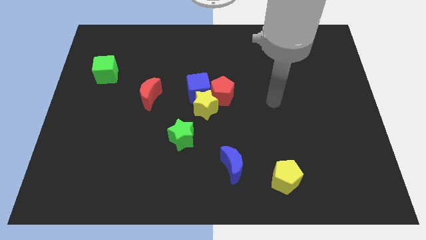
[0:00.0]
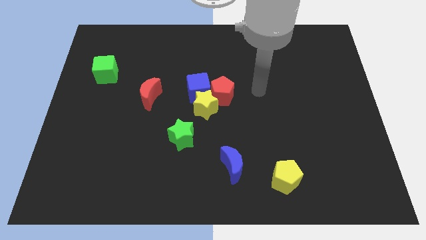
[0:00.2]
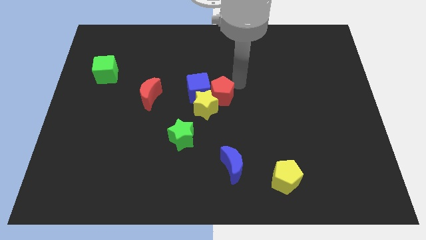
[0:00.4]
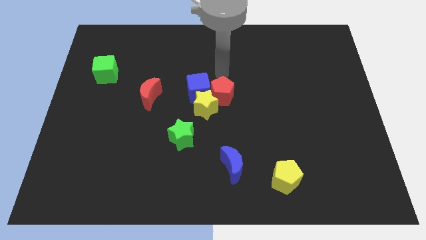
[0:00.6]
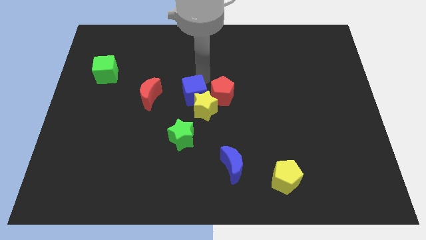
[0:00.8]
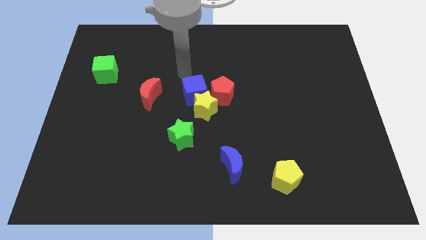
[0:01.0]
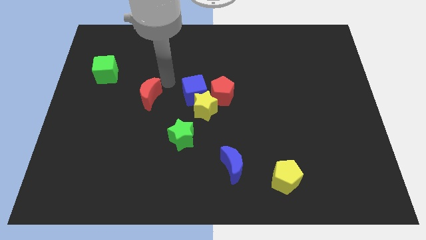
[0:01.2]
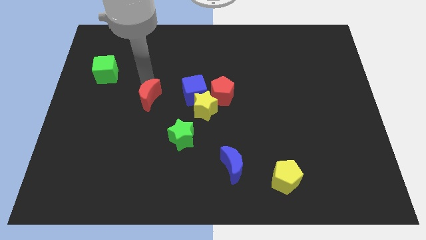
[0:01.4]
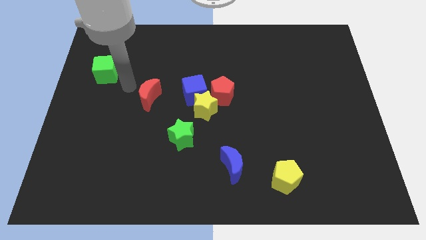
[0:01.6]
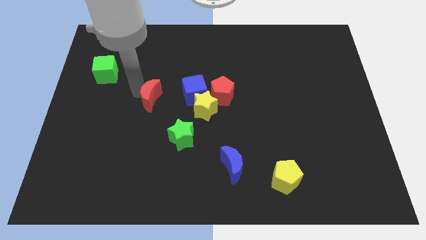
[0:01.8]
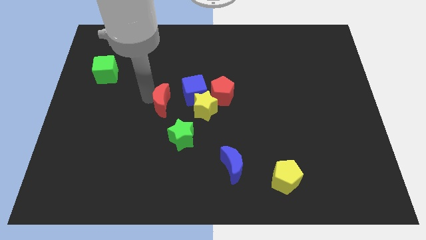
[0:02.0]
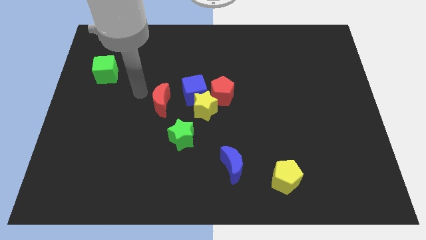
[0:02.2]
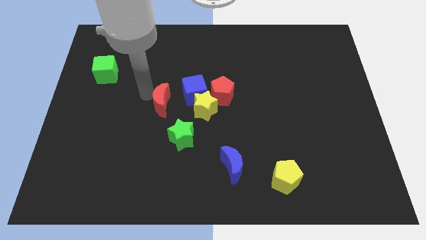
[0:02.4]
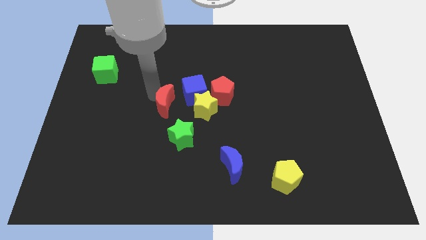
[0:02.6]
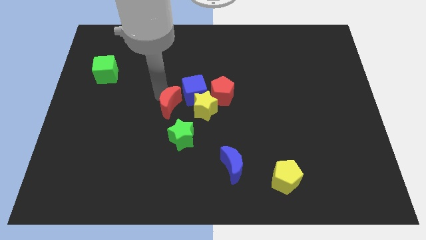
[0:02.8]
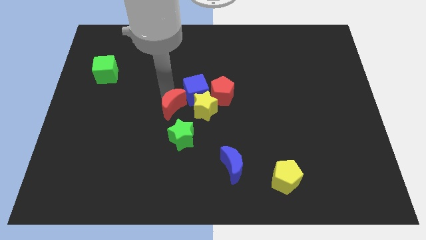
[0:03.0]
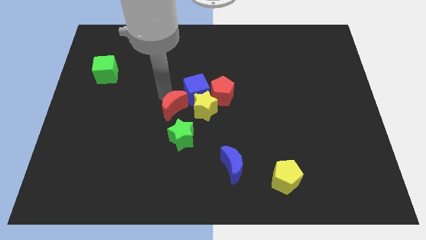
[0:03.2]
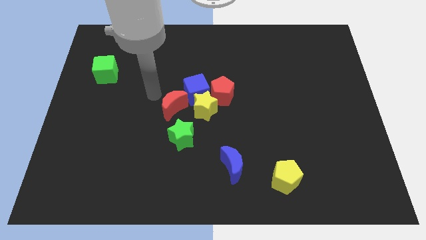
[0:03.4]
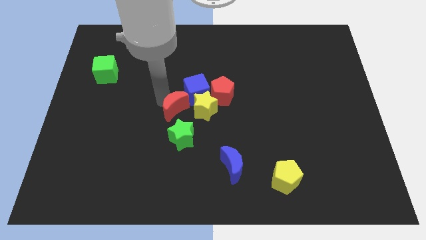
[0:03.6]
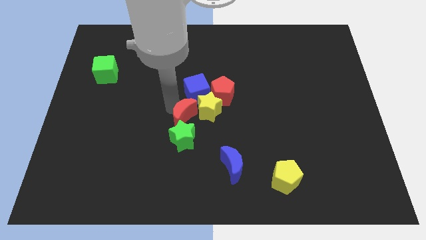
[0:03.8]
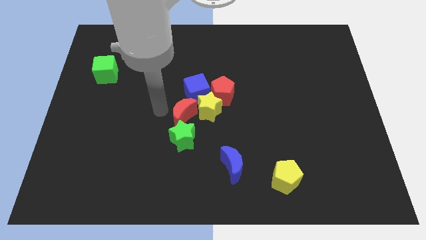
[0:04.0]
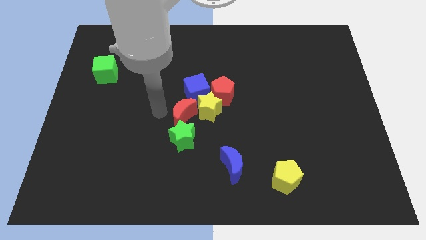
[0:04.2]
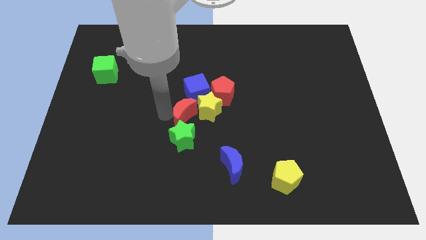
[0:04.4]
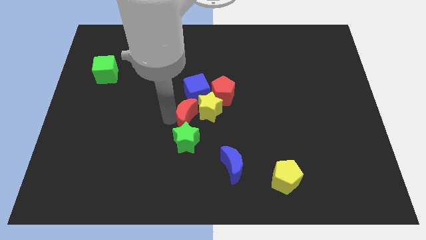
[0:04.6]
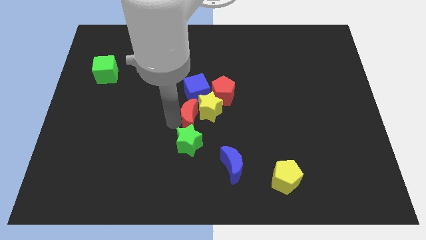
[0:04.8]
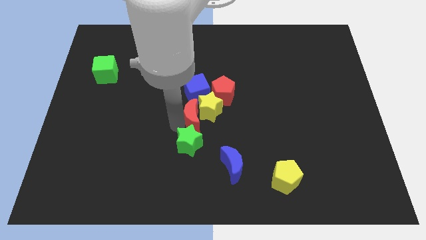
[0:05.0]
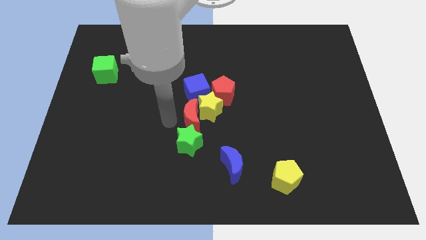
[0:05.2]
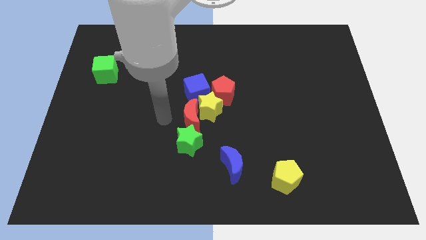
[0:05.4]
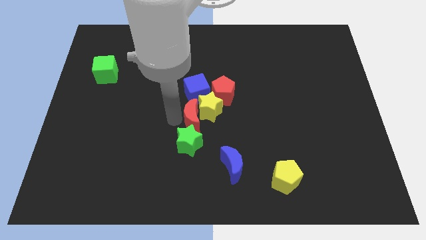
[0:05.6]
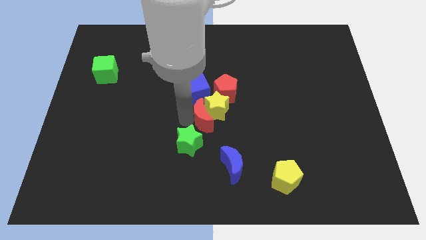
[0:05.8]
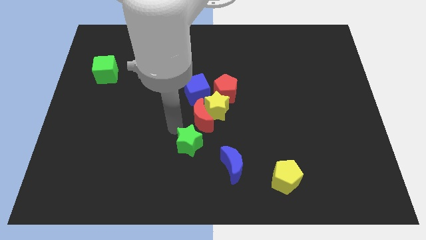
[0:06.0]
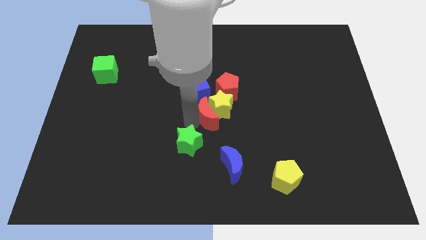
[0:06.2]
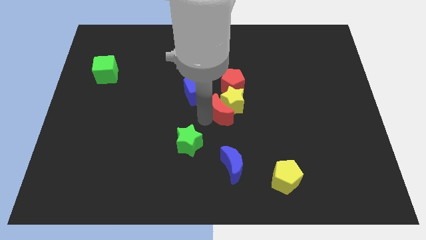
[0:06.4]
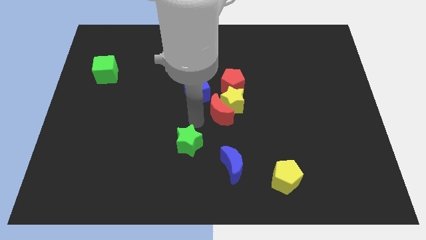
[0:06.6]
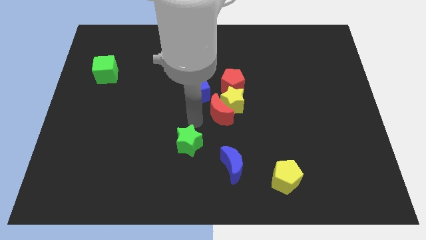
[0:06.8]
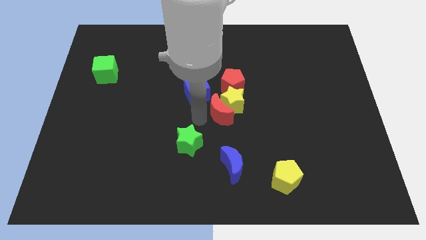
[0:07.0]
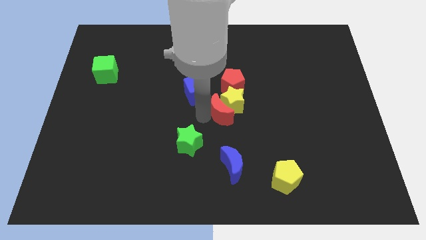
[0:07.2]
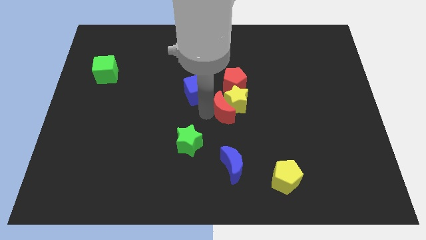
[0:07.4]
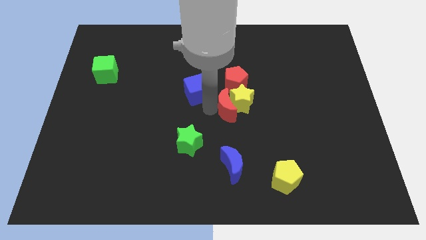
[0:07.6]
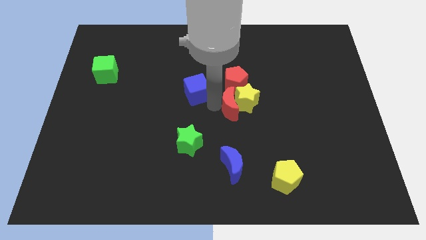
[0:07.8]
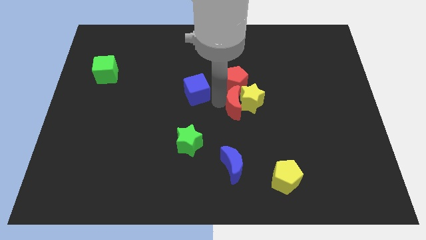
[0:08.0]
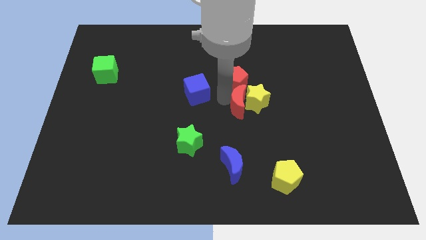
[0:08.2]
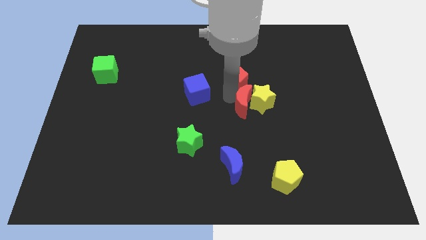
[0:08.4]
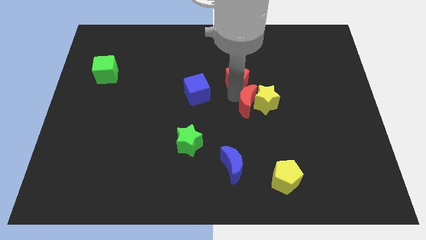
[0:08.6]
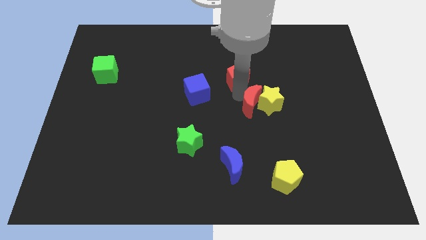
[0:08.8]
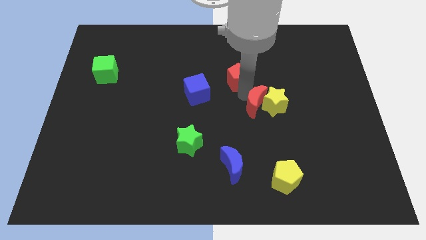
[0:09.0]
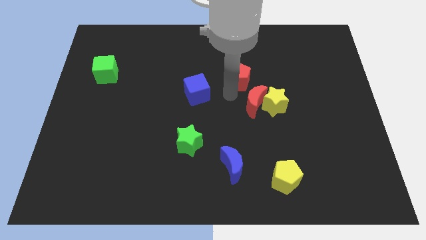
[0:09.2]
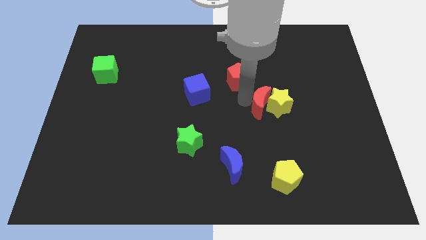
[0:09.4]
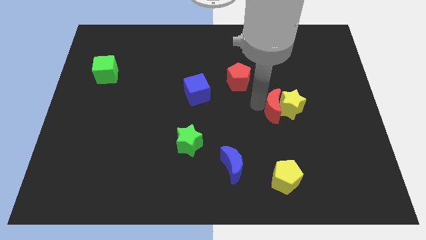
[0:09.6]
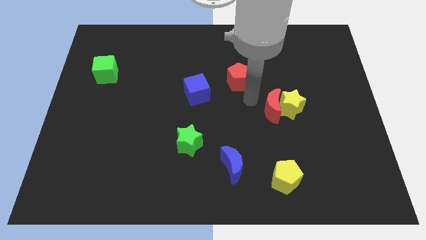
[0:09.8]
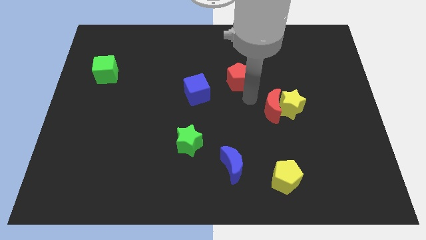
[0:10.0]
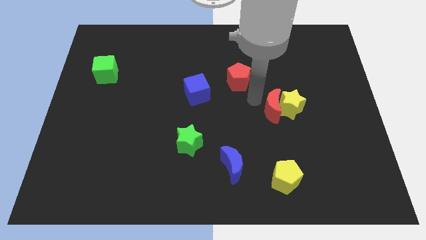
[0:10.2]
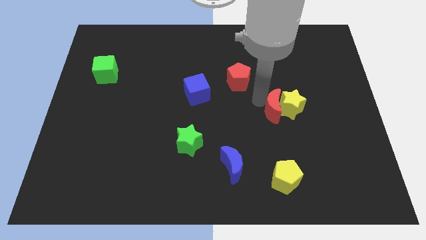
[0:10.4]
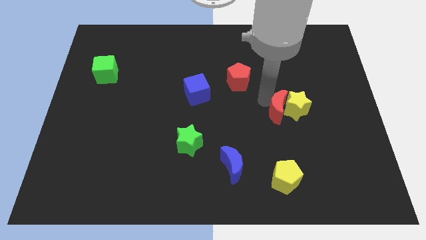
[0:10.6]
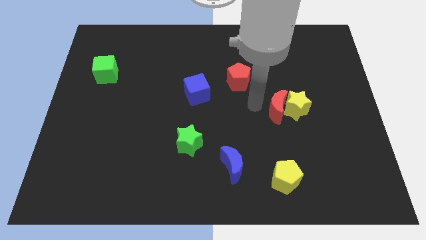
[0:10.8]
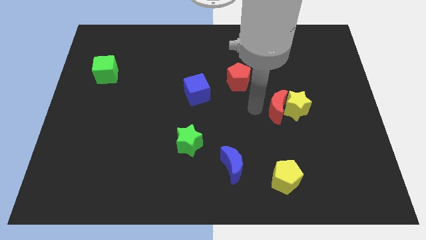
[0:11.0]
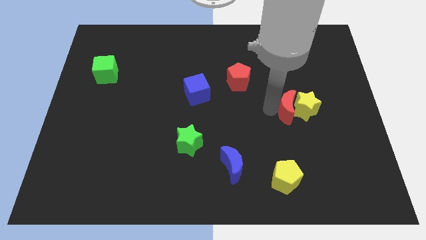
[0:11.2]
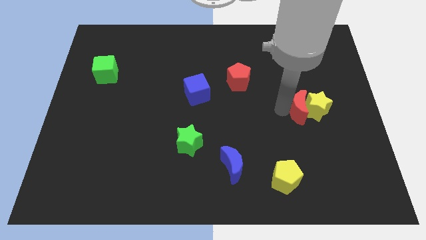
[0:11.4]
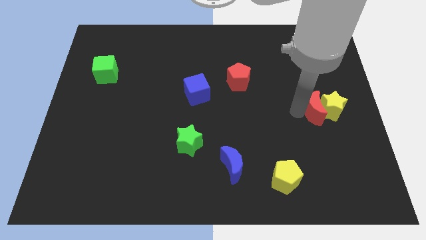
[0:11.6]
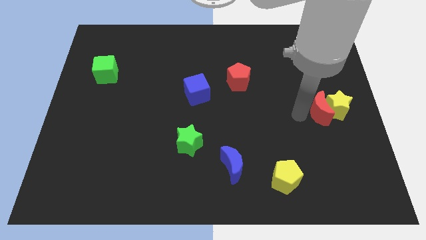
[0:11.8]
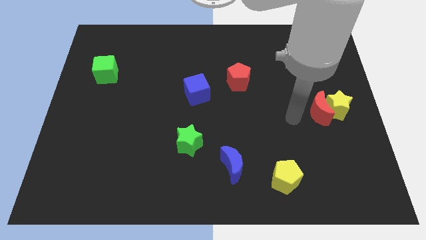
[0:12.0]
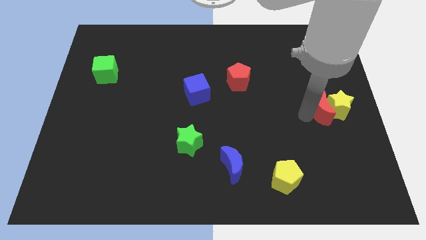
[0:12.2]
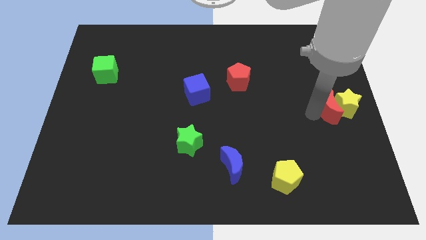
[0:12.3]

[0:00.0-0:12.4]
push the red moon to the right side of the board

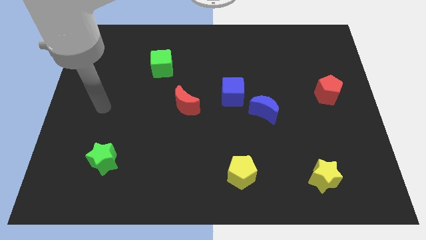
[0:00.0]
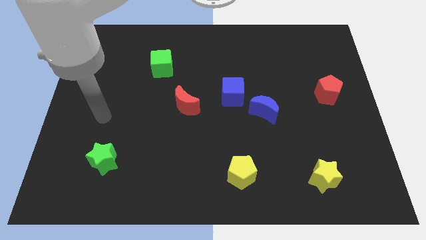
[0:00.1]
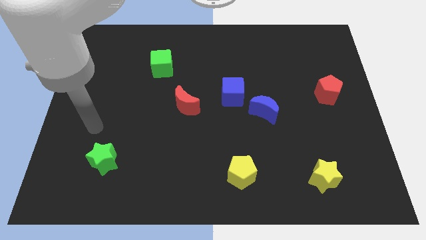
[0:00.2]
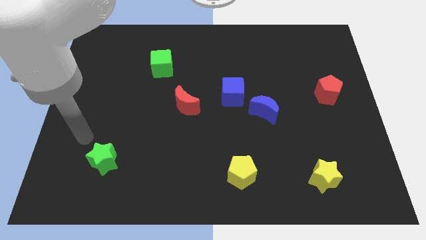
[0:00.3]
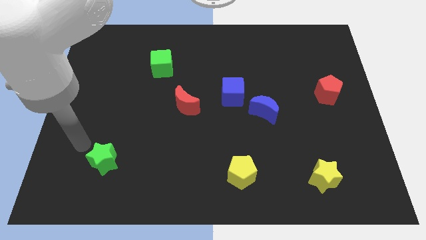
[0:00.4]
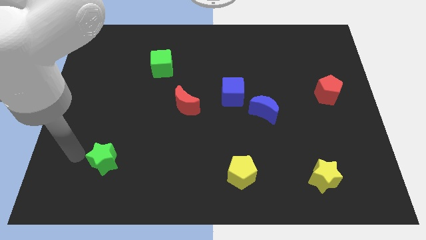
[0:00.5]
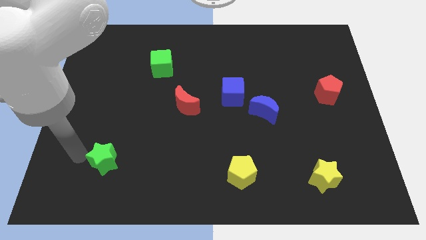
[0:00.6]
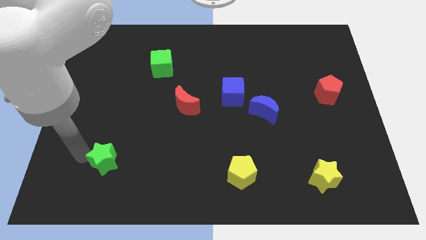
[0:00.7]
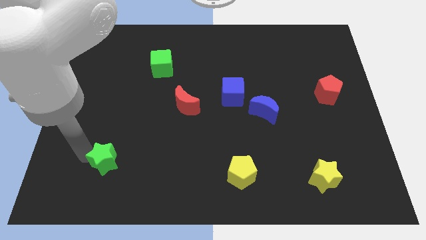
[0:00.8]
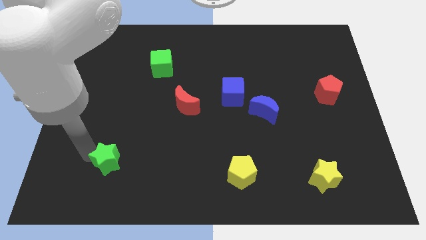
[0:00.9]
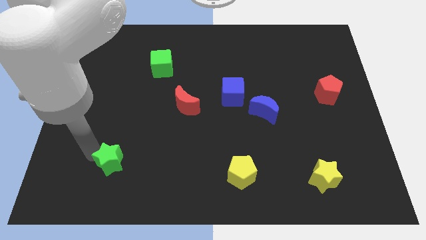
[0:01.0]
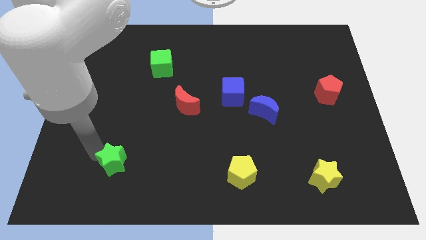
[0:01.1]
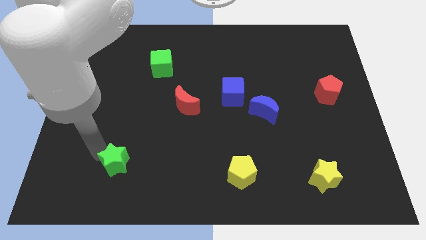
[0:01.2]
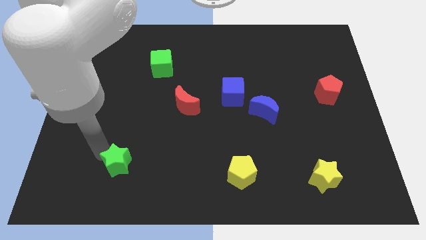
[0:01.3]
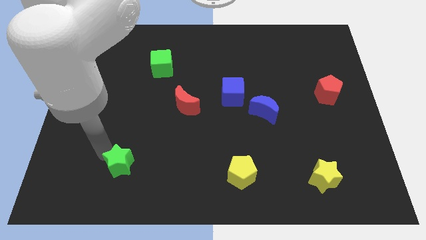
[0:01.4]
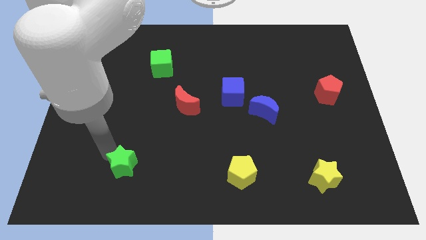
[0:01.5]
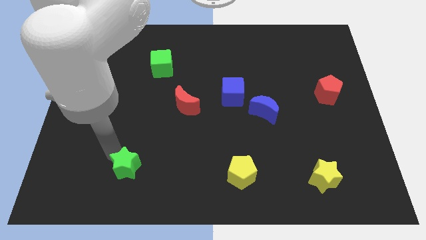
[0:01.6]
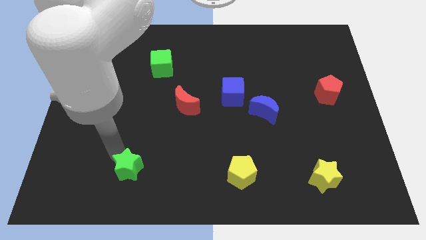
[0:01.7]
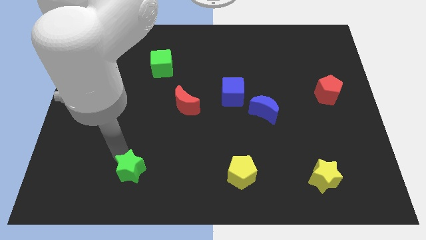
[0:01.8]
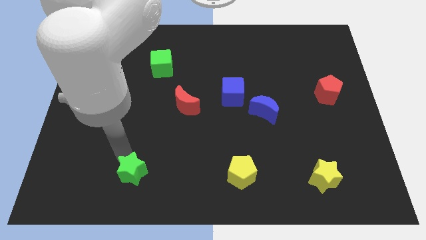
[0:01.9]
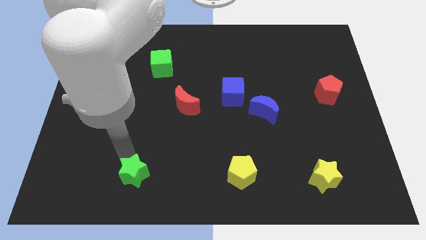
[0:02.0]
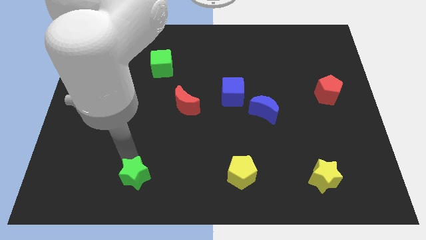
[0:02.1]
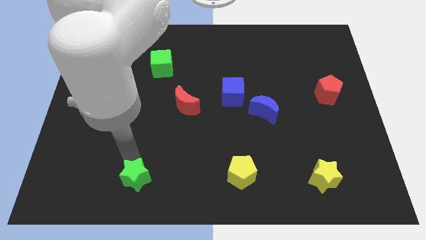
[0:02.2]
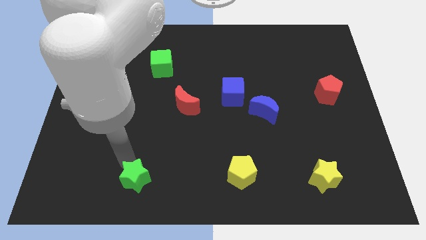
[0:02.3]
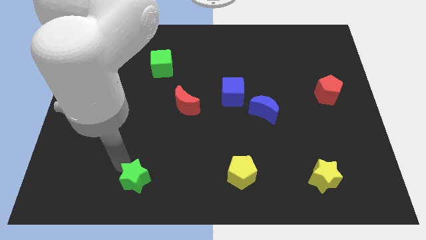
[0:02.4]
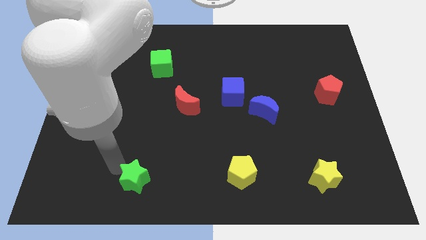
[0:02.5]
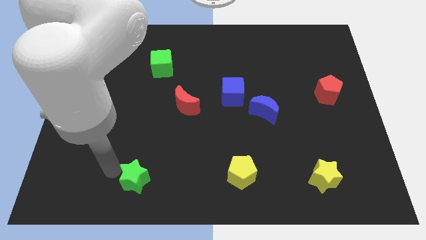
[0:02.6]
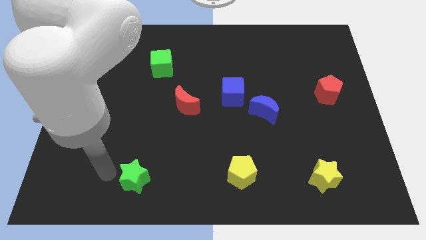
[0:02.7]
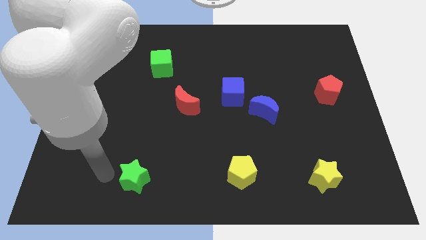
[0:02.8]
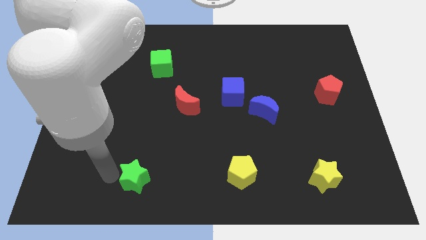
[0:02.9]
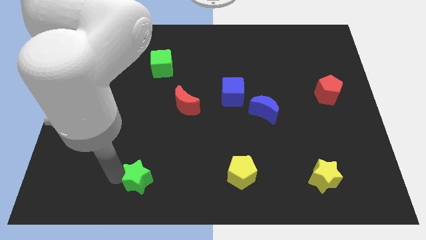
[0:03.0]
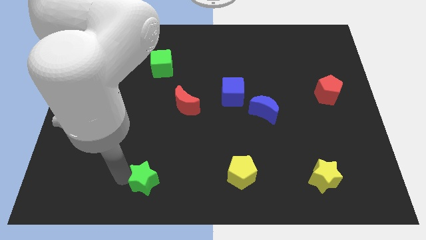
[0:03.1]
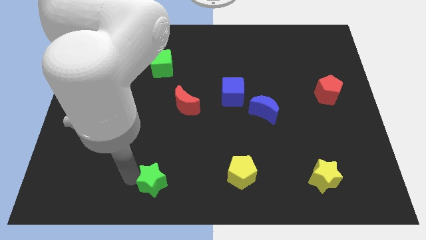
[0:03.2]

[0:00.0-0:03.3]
put the green star to the bottom side
